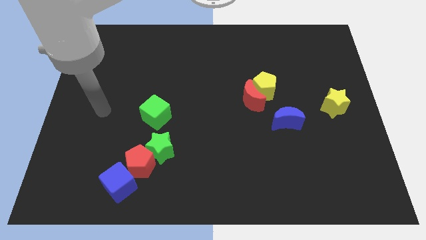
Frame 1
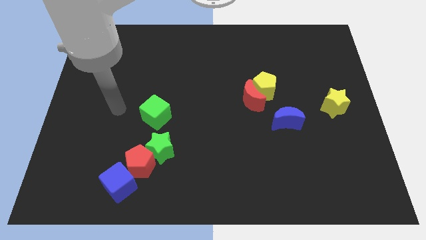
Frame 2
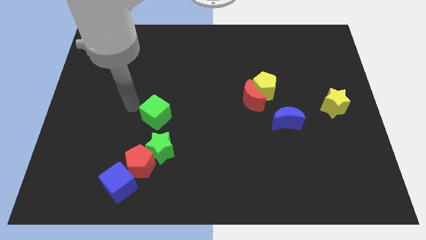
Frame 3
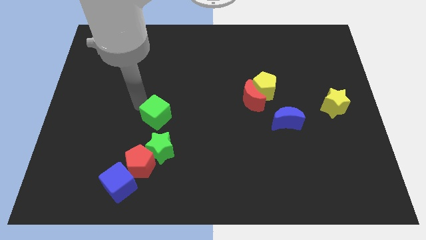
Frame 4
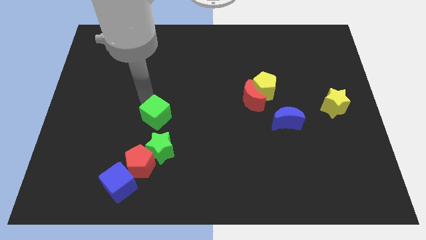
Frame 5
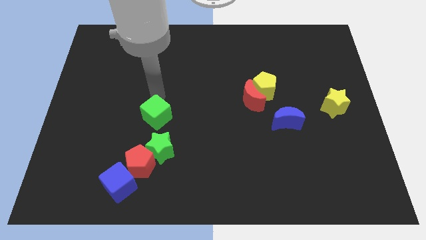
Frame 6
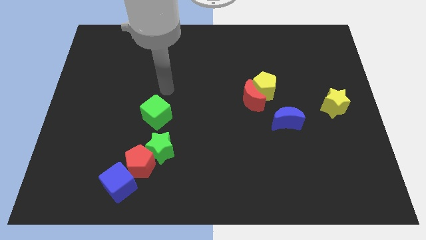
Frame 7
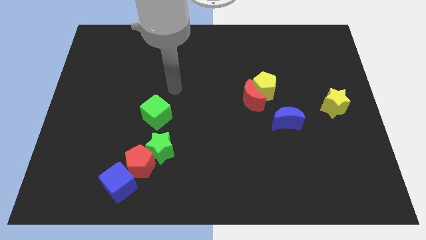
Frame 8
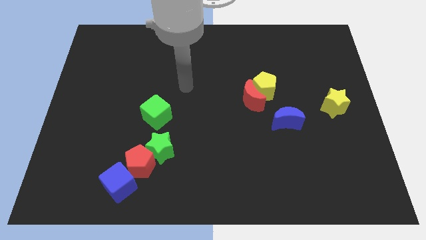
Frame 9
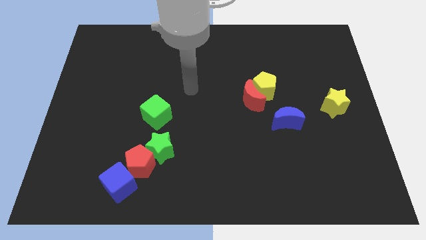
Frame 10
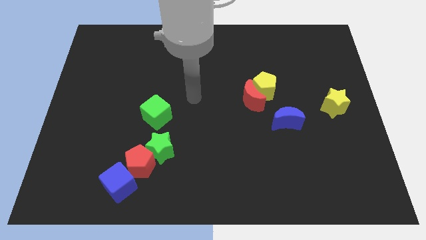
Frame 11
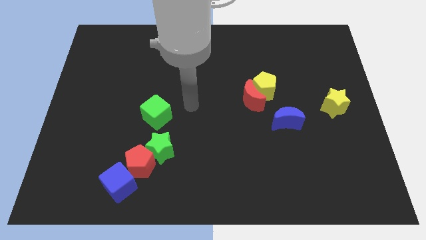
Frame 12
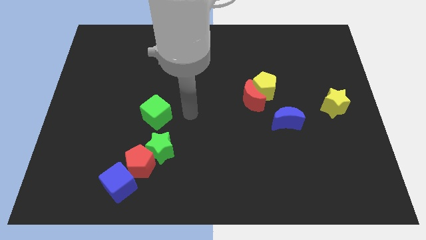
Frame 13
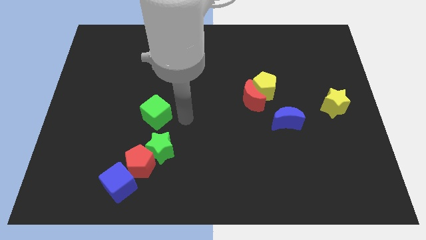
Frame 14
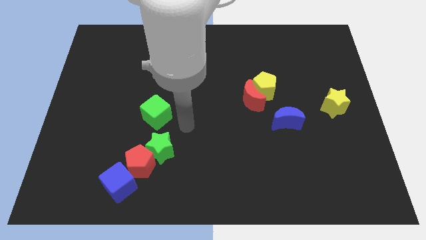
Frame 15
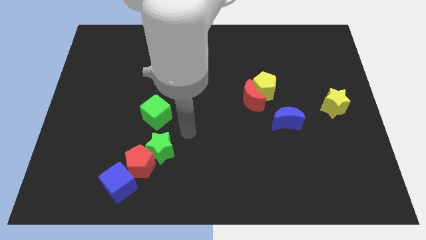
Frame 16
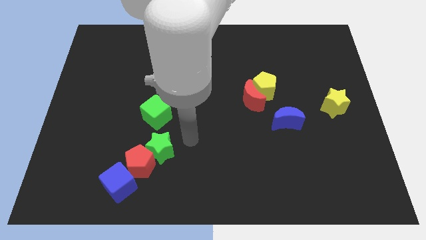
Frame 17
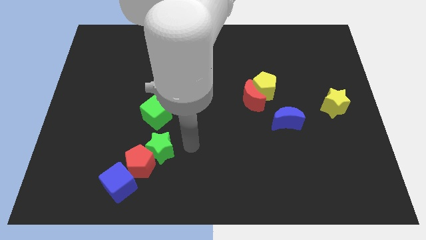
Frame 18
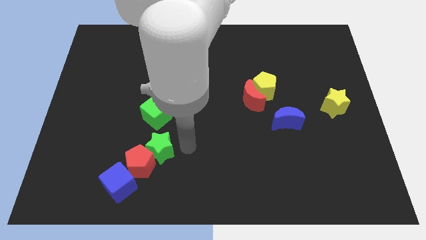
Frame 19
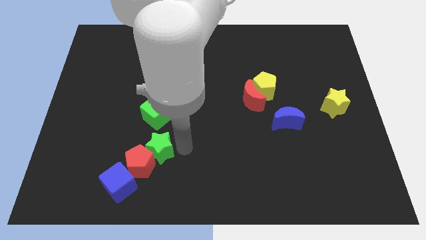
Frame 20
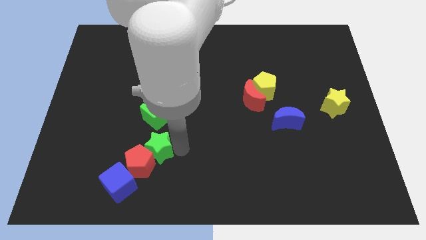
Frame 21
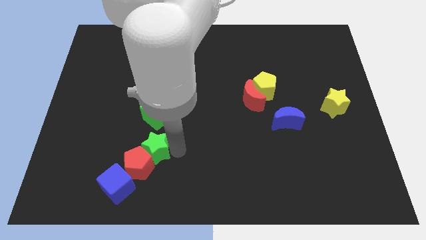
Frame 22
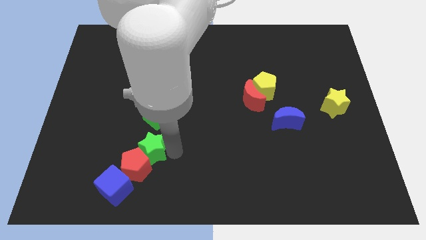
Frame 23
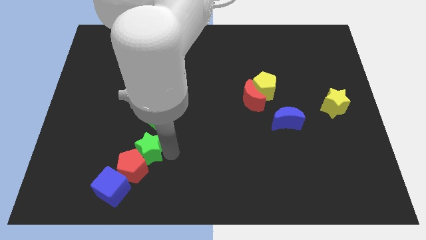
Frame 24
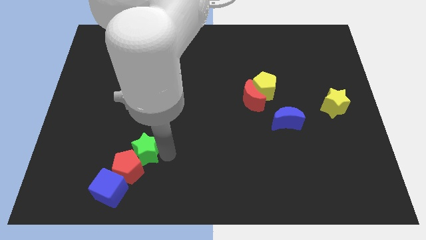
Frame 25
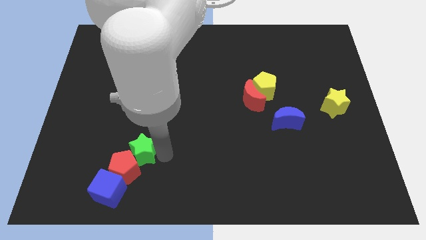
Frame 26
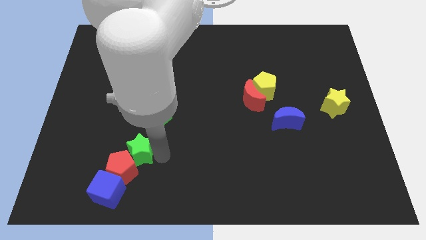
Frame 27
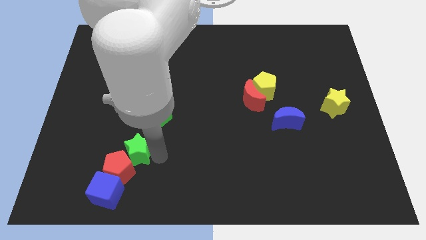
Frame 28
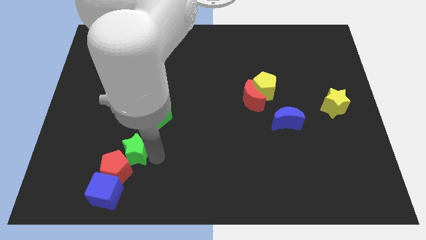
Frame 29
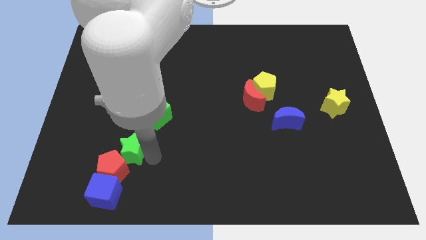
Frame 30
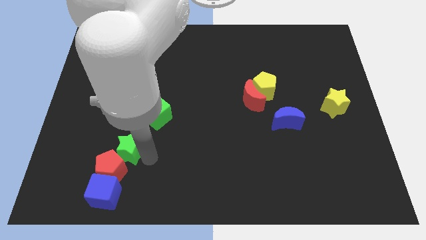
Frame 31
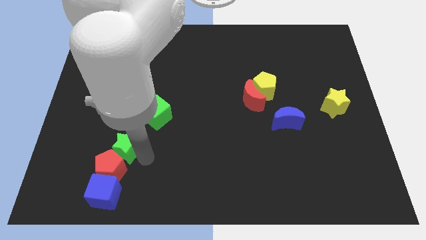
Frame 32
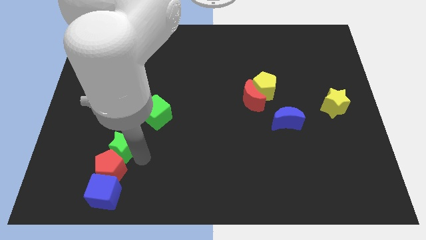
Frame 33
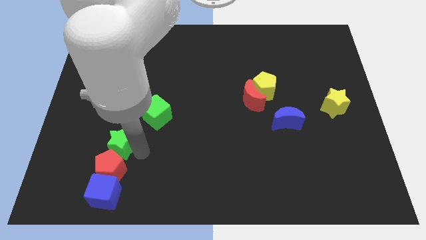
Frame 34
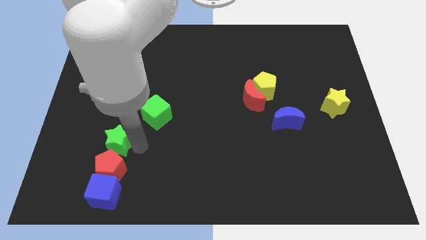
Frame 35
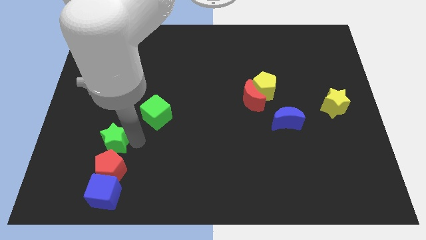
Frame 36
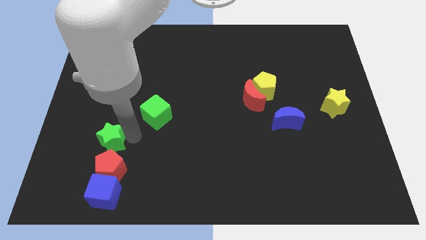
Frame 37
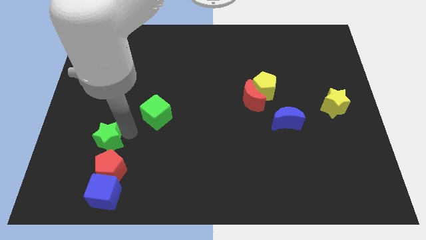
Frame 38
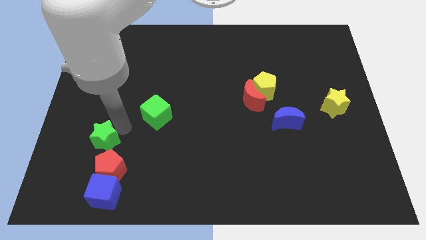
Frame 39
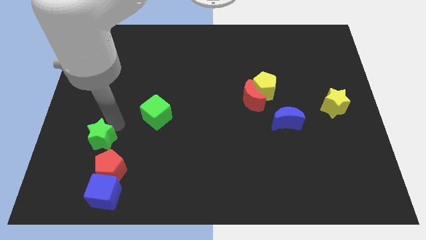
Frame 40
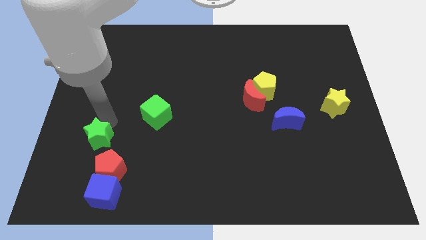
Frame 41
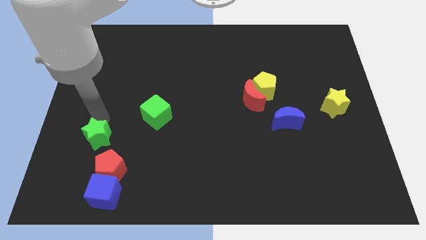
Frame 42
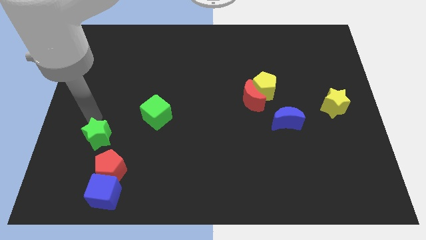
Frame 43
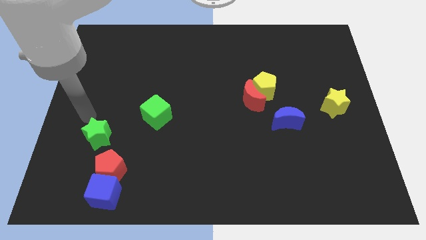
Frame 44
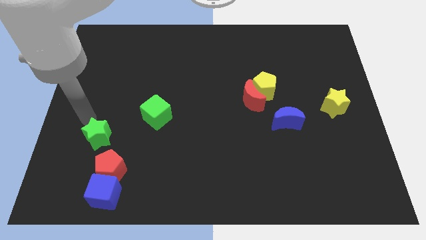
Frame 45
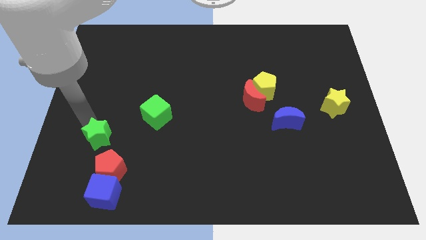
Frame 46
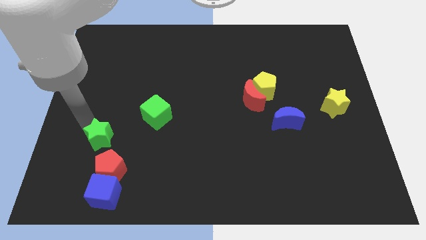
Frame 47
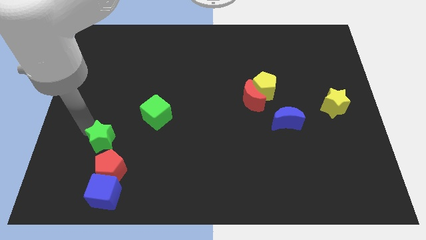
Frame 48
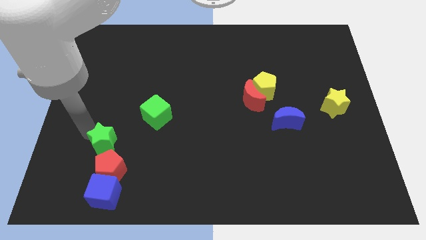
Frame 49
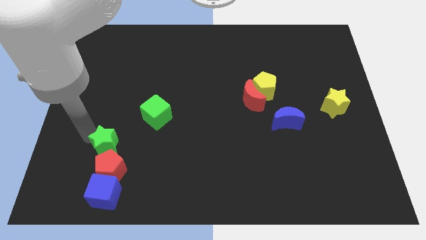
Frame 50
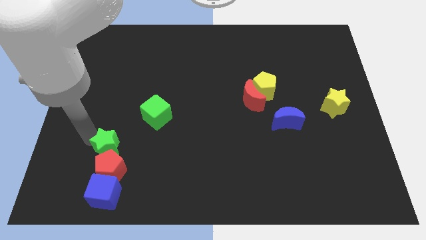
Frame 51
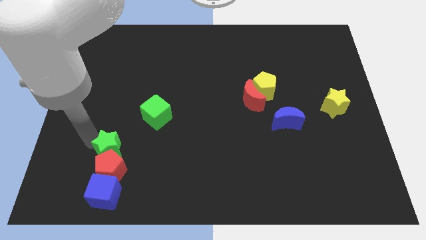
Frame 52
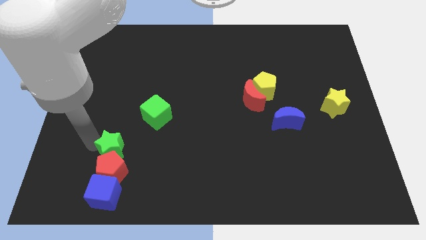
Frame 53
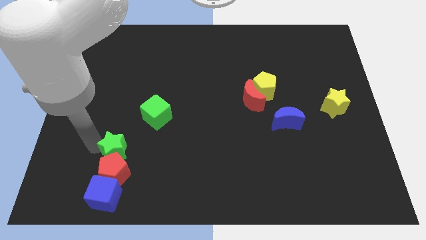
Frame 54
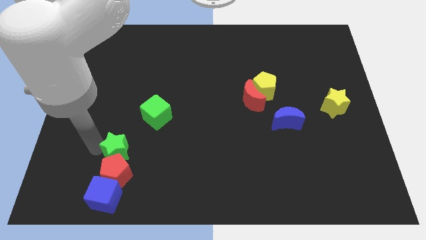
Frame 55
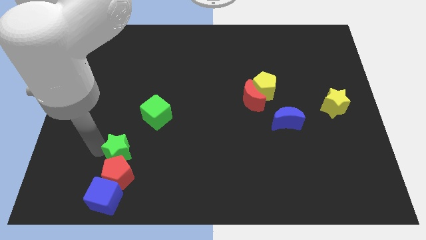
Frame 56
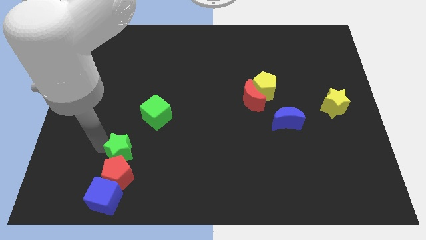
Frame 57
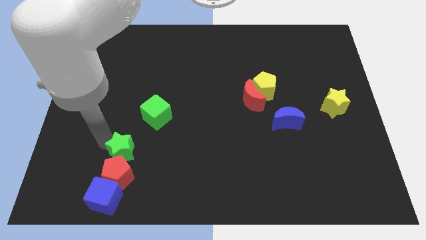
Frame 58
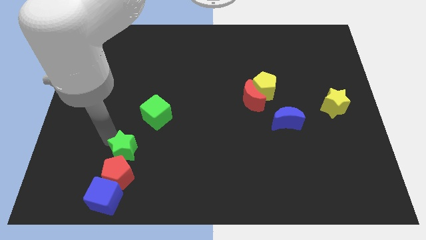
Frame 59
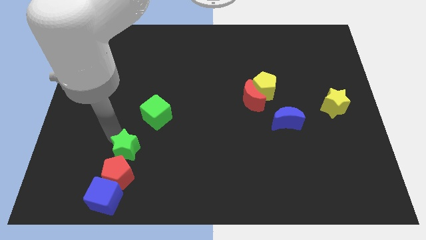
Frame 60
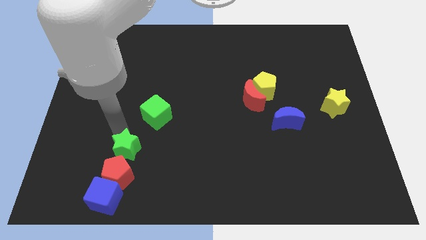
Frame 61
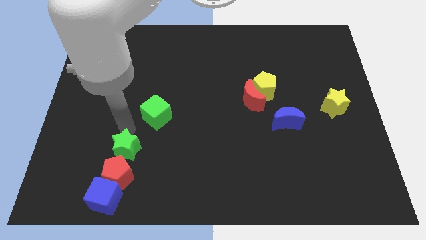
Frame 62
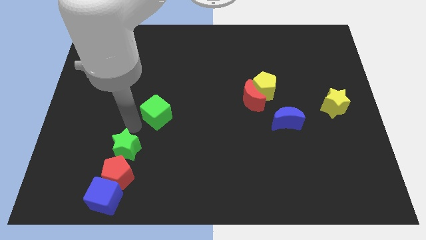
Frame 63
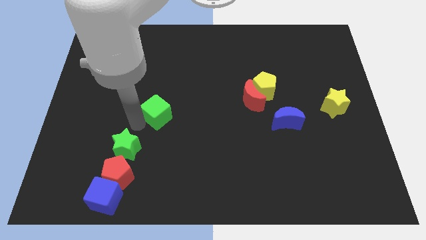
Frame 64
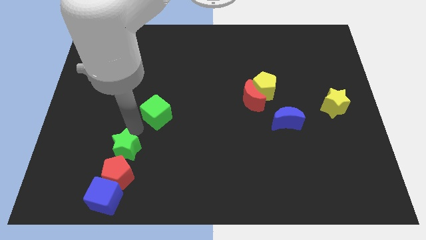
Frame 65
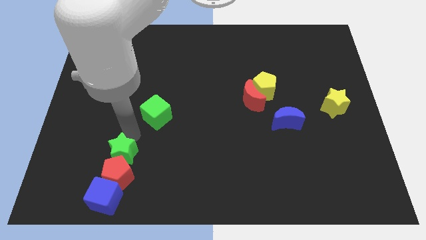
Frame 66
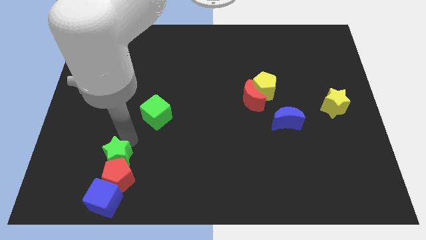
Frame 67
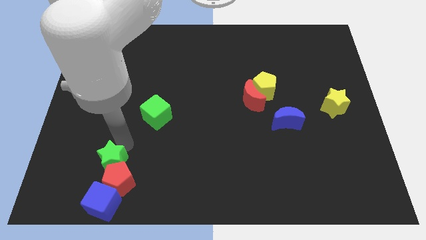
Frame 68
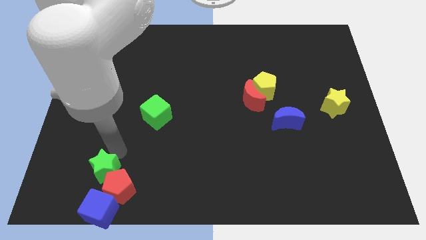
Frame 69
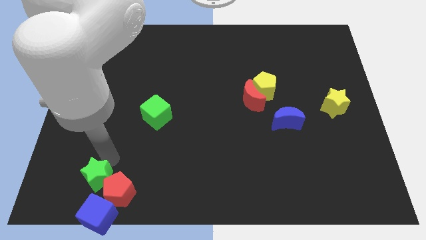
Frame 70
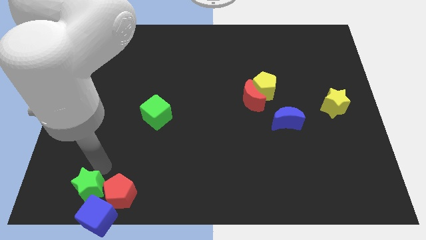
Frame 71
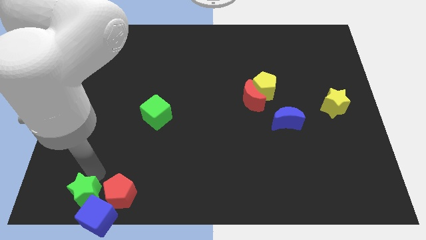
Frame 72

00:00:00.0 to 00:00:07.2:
slide the green star close to the blue cube
